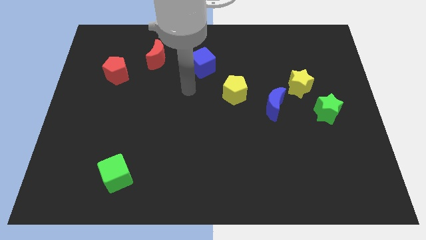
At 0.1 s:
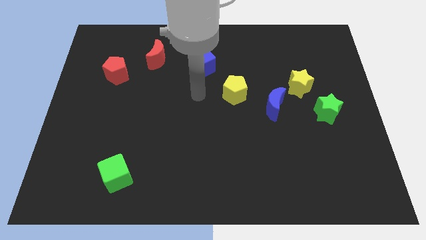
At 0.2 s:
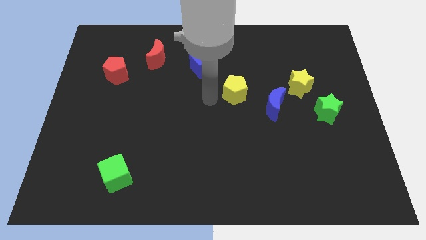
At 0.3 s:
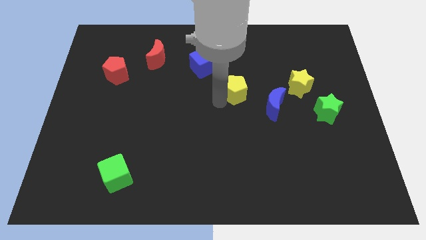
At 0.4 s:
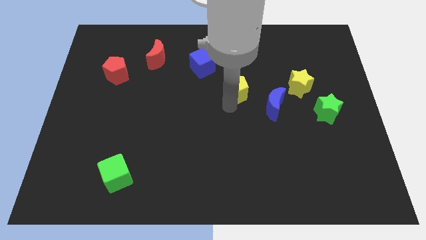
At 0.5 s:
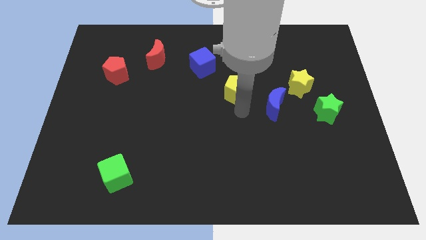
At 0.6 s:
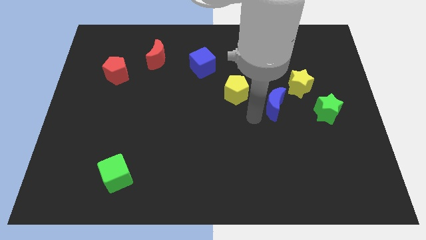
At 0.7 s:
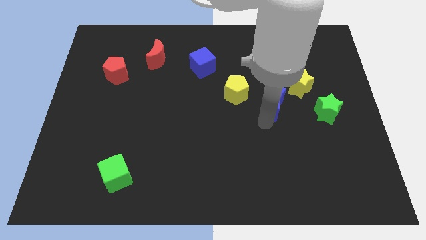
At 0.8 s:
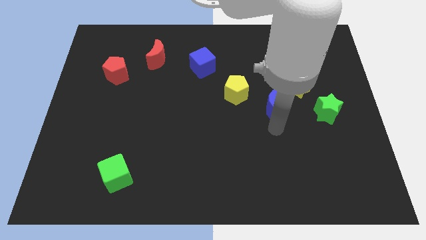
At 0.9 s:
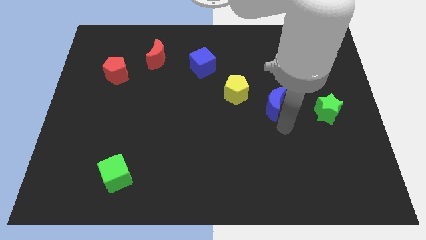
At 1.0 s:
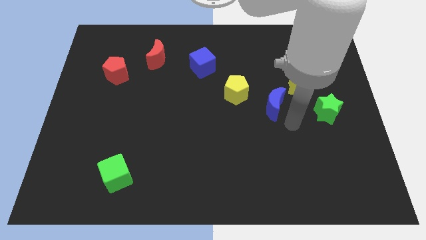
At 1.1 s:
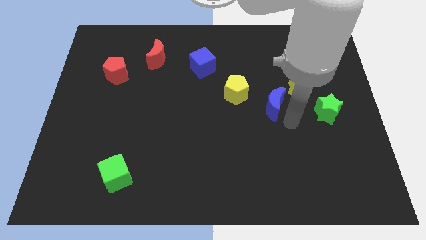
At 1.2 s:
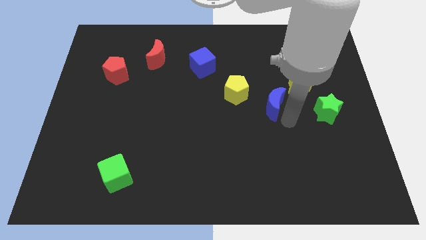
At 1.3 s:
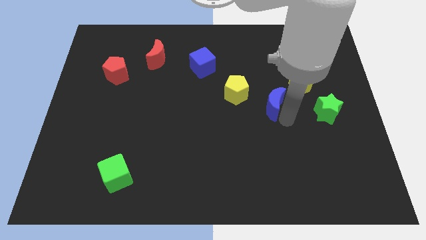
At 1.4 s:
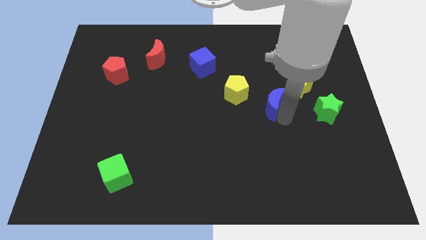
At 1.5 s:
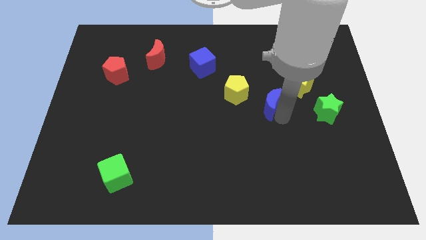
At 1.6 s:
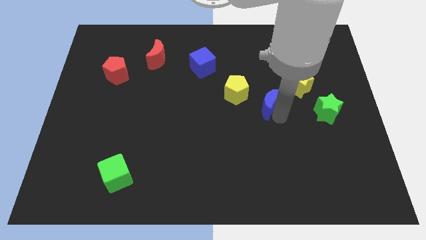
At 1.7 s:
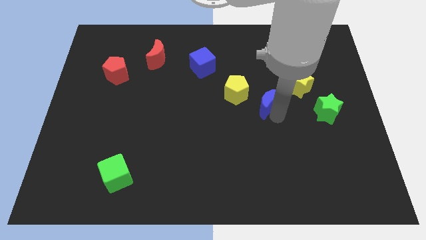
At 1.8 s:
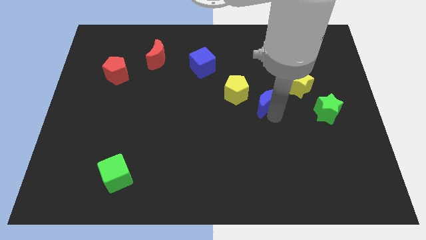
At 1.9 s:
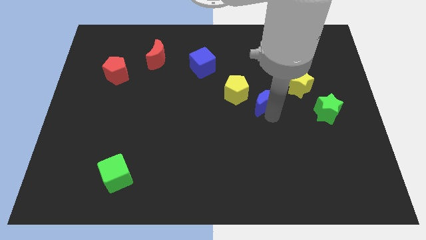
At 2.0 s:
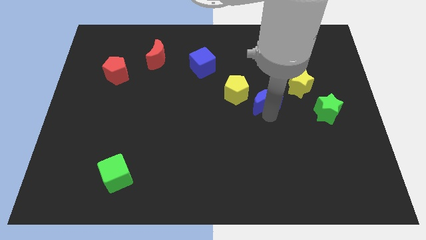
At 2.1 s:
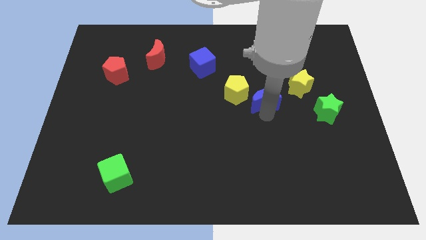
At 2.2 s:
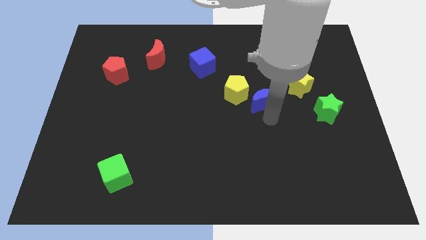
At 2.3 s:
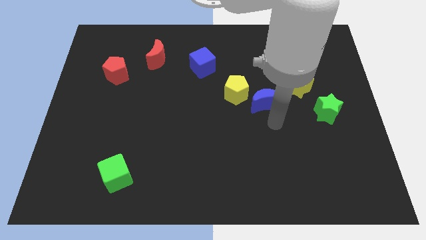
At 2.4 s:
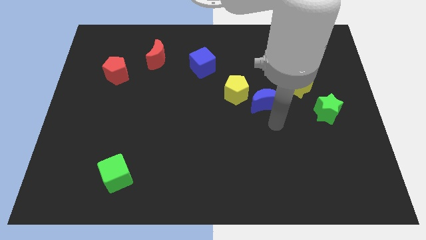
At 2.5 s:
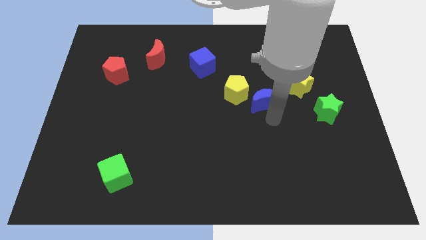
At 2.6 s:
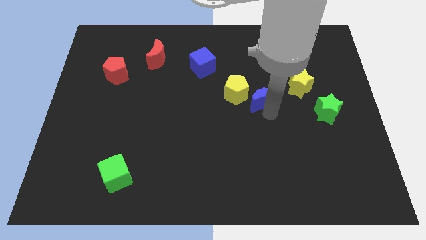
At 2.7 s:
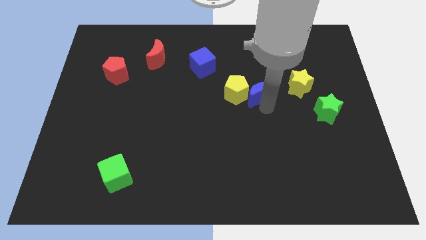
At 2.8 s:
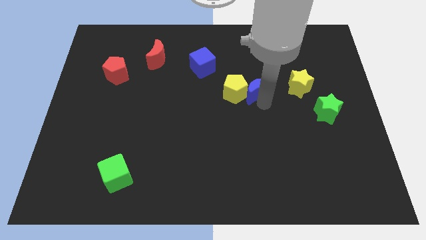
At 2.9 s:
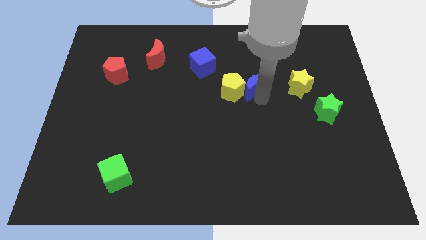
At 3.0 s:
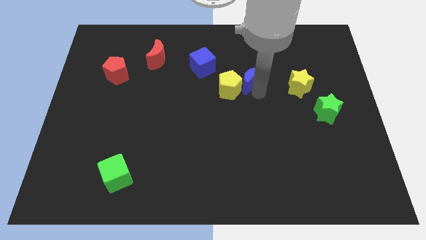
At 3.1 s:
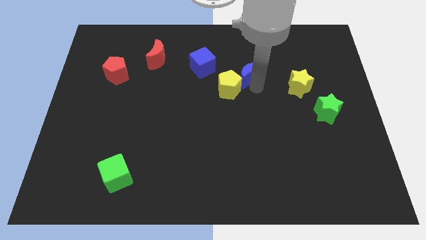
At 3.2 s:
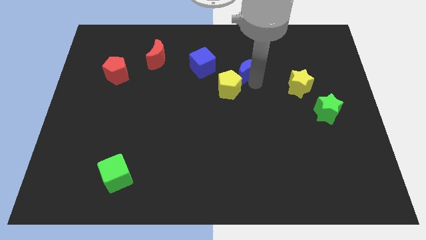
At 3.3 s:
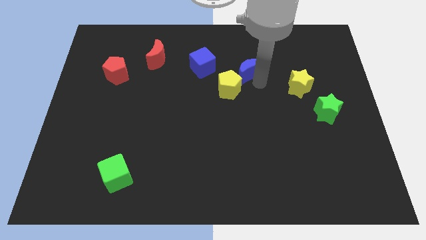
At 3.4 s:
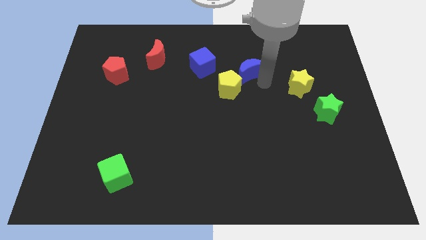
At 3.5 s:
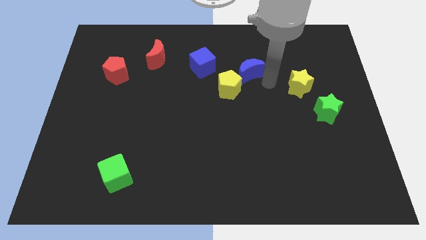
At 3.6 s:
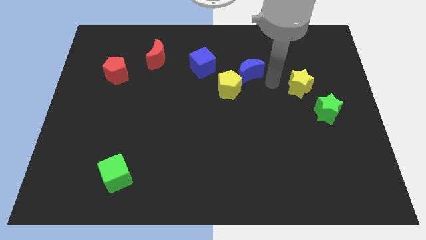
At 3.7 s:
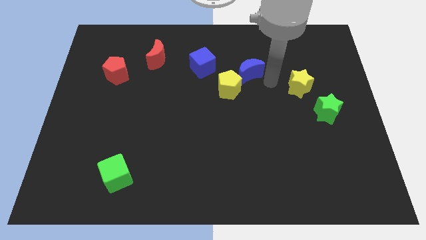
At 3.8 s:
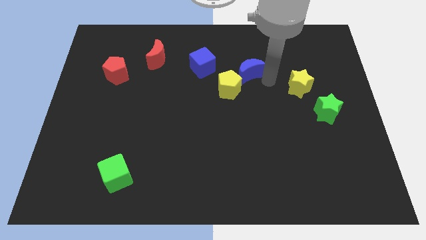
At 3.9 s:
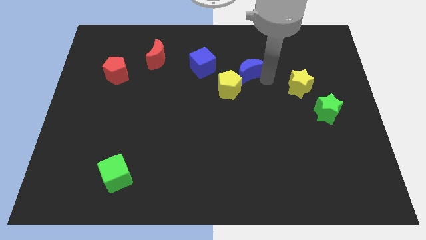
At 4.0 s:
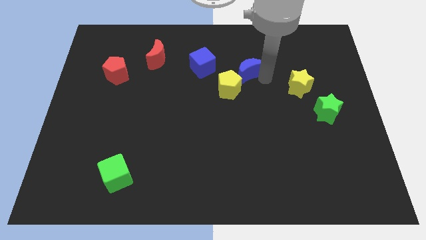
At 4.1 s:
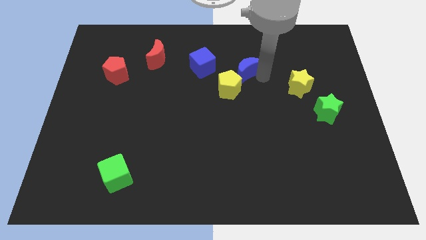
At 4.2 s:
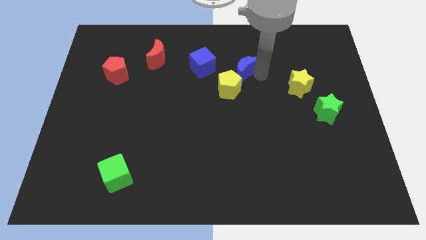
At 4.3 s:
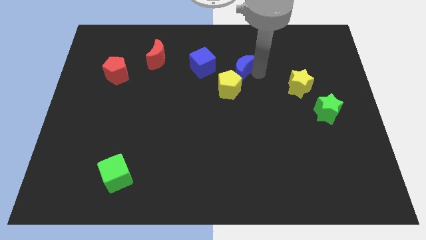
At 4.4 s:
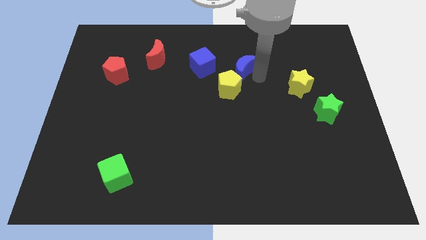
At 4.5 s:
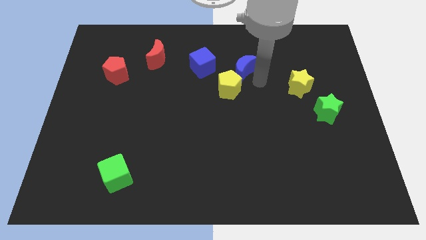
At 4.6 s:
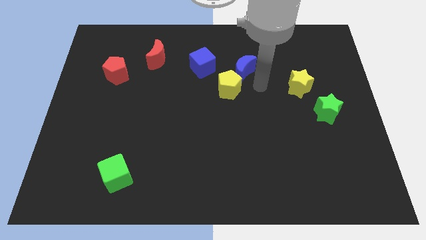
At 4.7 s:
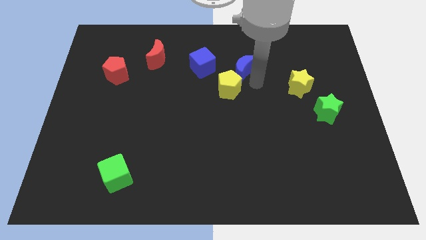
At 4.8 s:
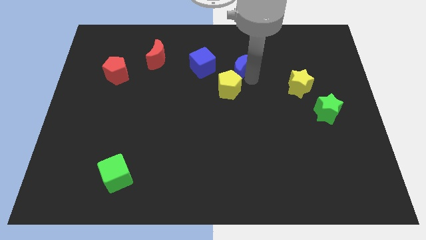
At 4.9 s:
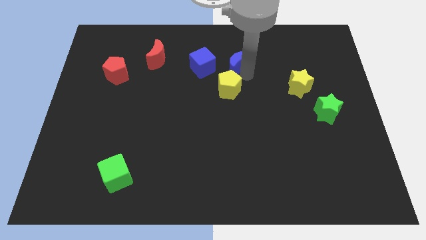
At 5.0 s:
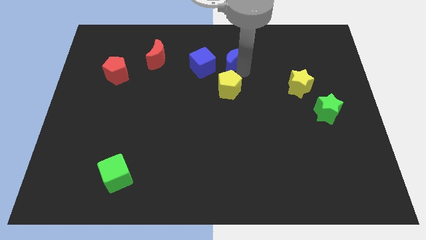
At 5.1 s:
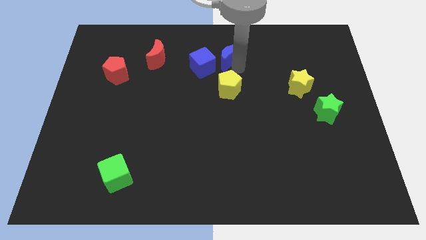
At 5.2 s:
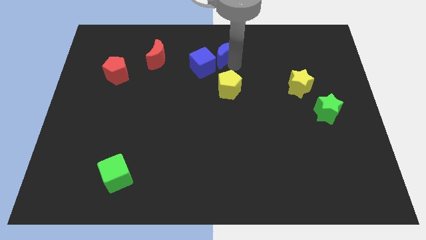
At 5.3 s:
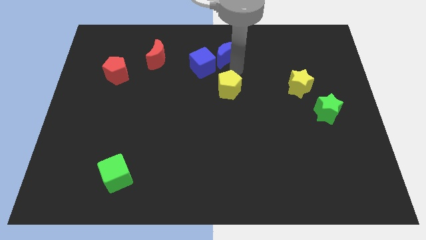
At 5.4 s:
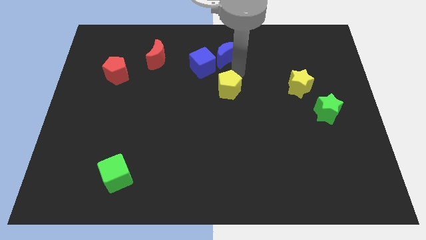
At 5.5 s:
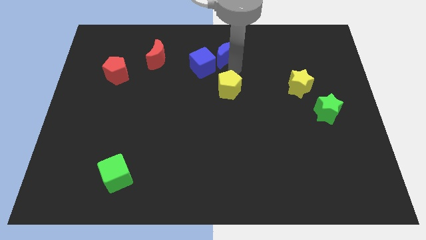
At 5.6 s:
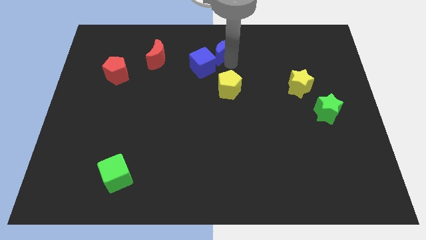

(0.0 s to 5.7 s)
put the blue moon to the towards your base

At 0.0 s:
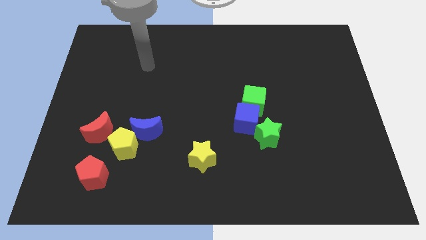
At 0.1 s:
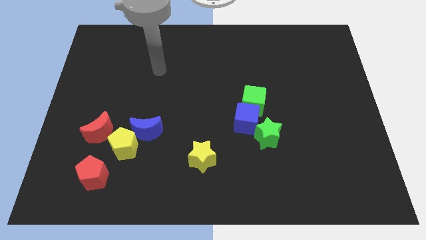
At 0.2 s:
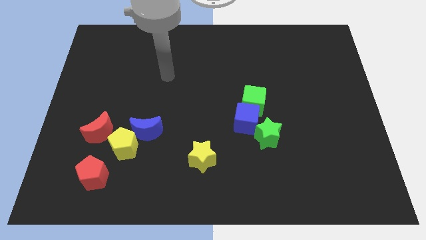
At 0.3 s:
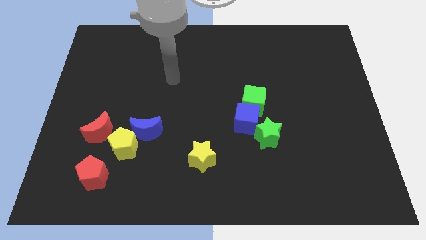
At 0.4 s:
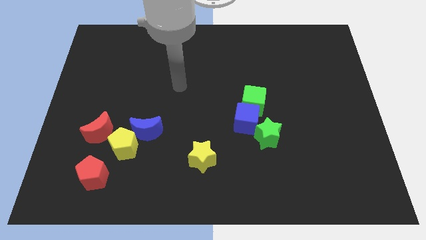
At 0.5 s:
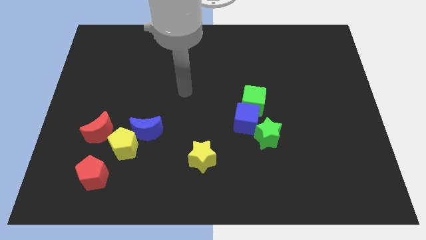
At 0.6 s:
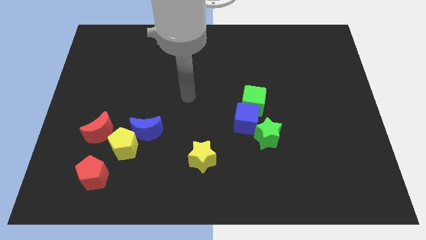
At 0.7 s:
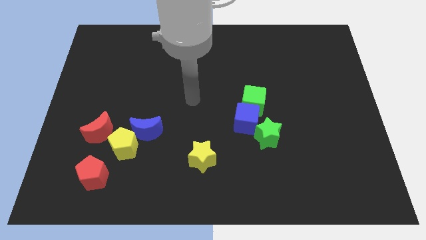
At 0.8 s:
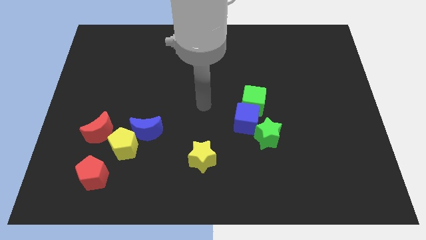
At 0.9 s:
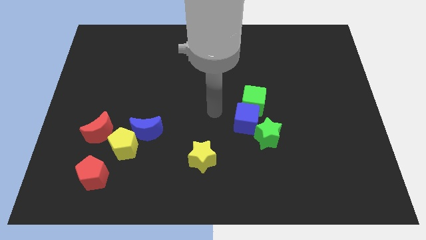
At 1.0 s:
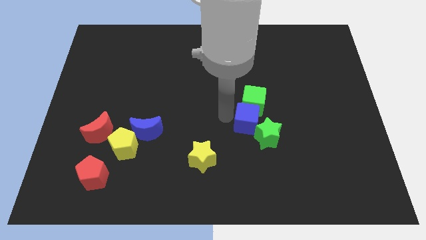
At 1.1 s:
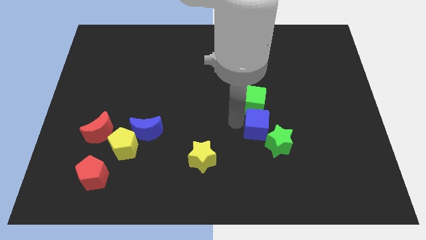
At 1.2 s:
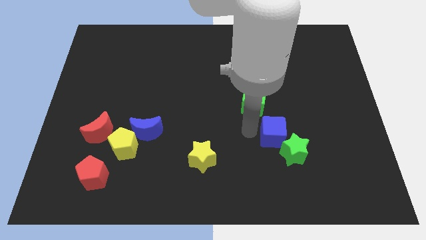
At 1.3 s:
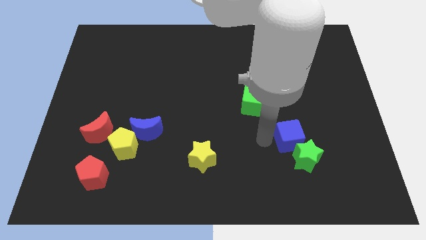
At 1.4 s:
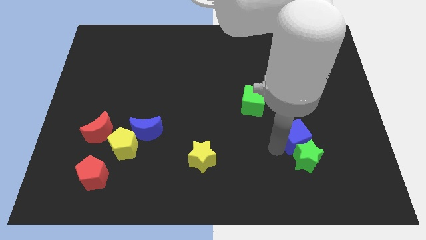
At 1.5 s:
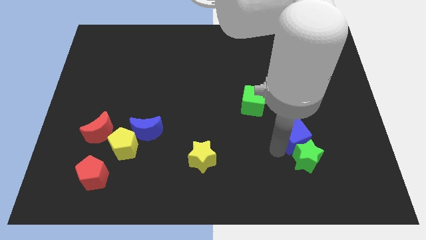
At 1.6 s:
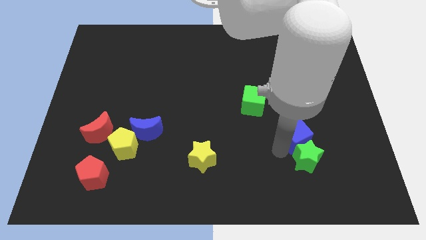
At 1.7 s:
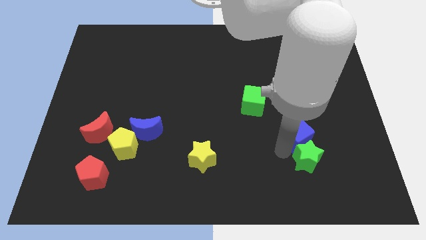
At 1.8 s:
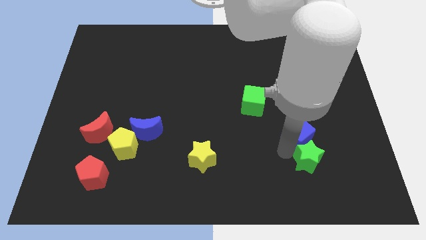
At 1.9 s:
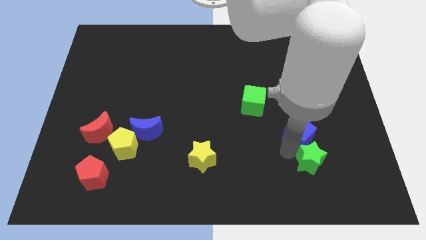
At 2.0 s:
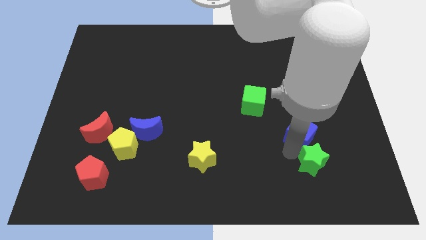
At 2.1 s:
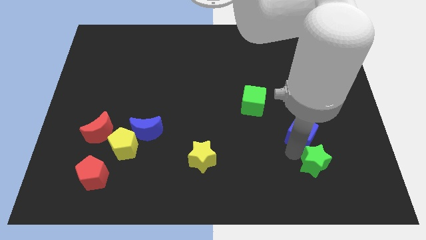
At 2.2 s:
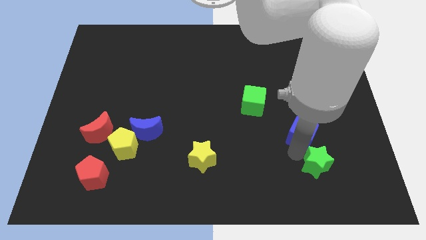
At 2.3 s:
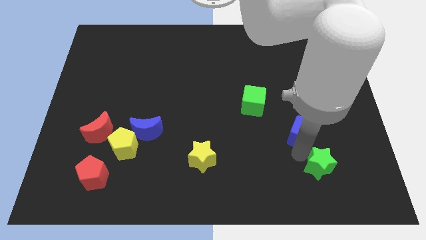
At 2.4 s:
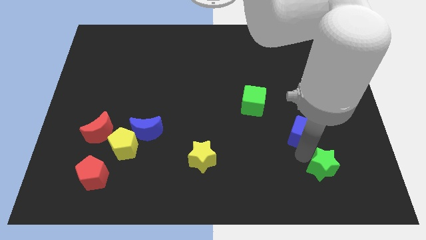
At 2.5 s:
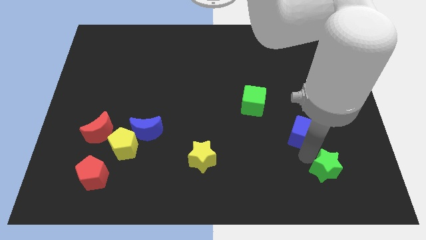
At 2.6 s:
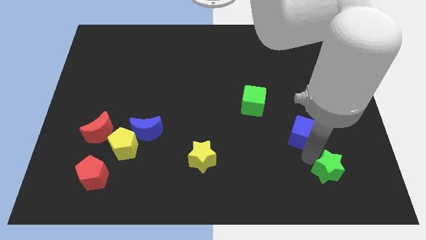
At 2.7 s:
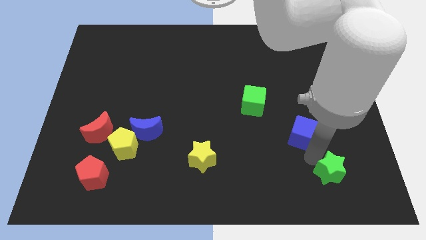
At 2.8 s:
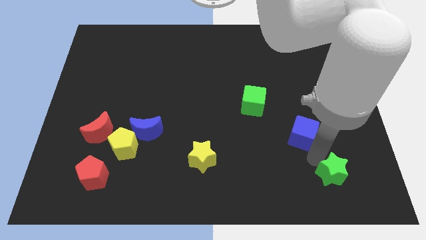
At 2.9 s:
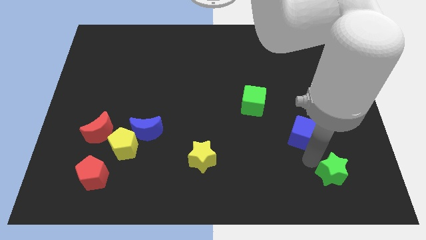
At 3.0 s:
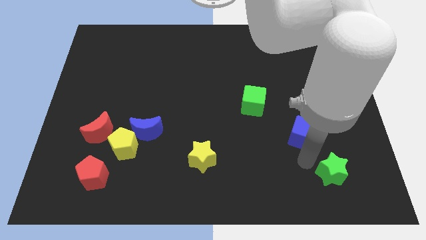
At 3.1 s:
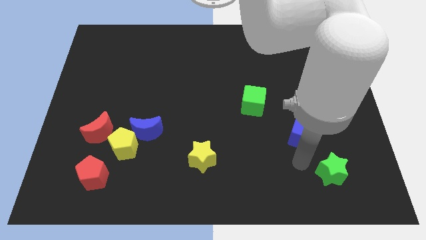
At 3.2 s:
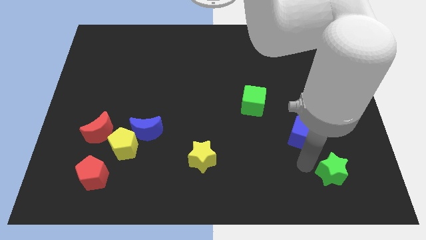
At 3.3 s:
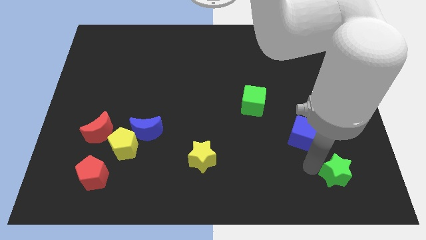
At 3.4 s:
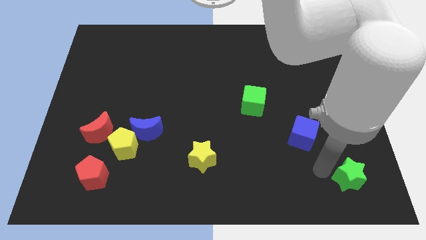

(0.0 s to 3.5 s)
slide the green star to the bottom right
